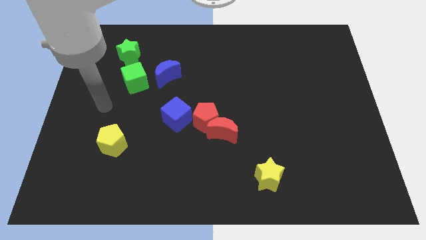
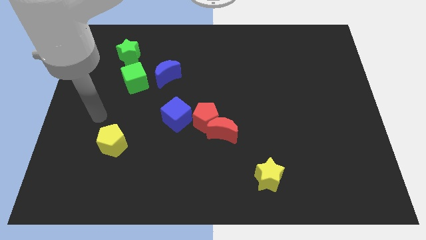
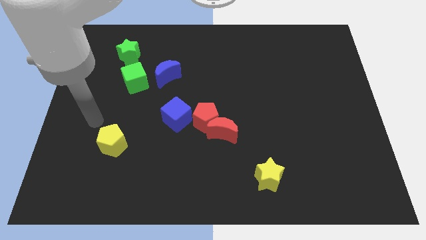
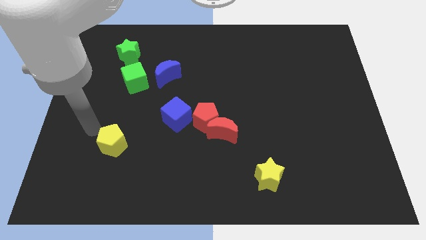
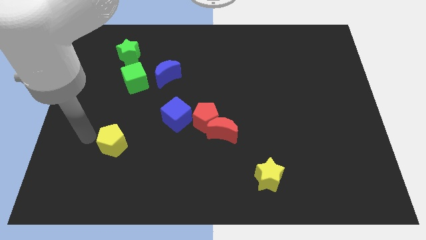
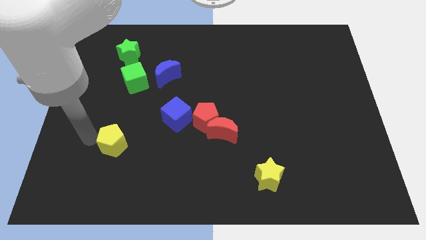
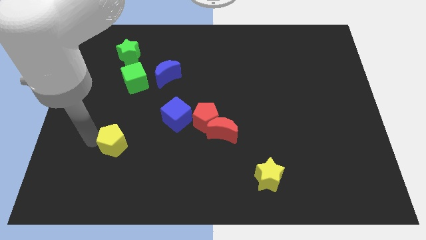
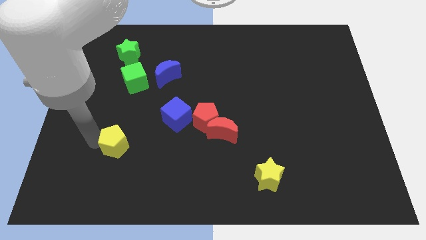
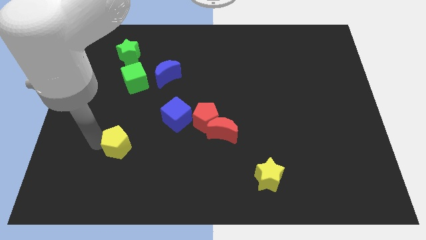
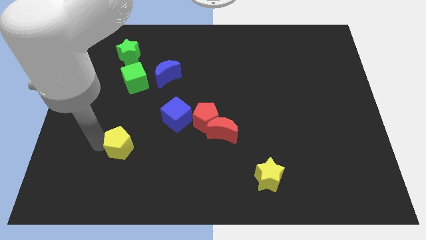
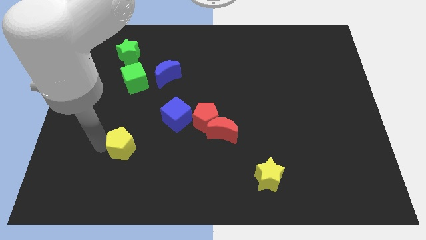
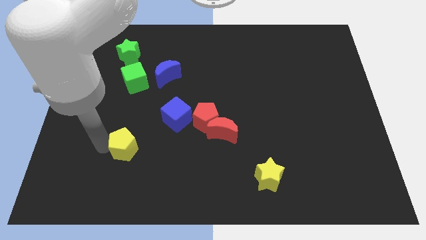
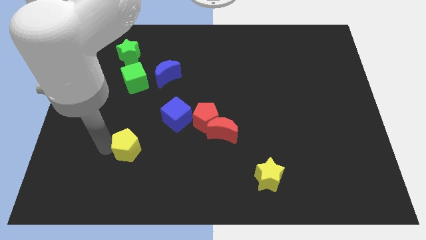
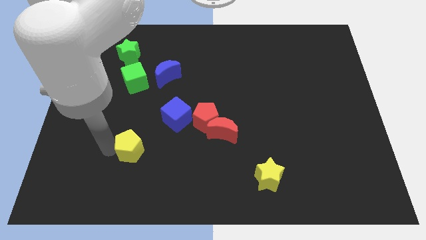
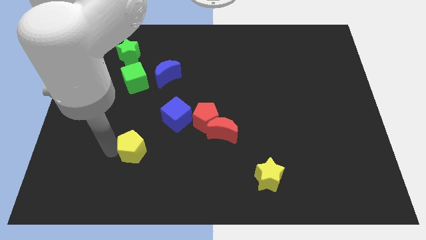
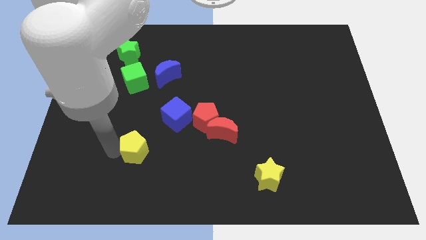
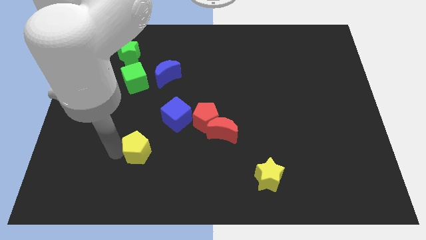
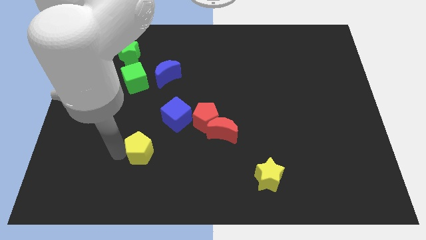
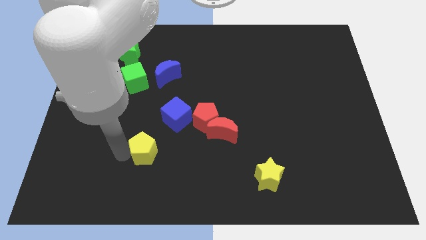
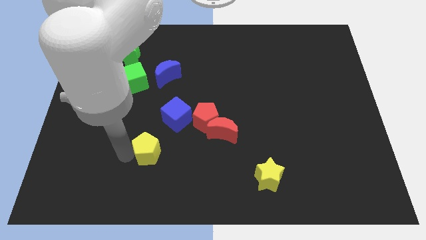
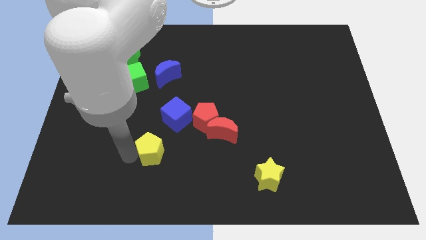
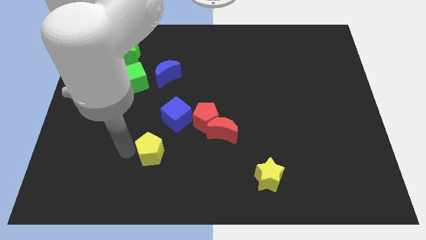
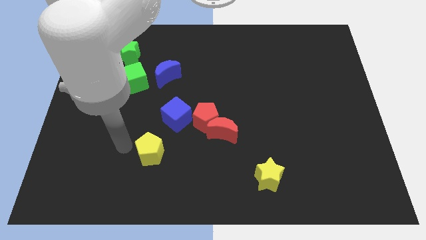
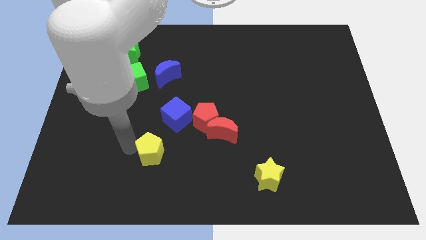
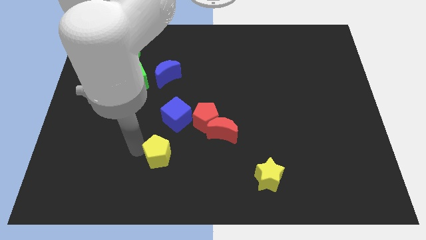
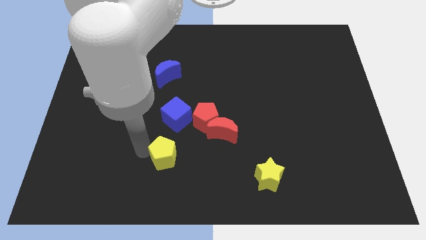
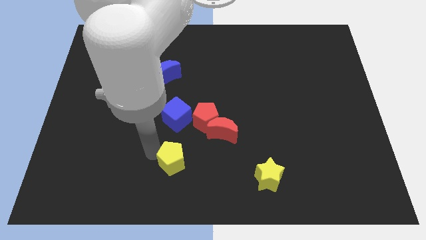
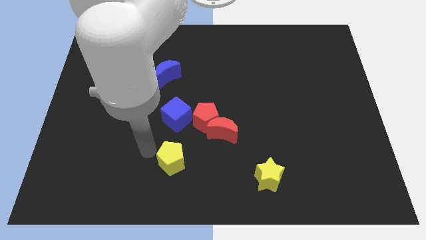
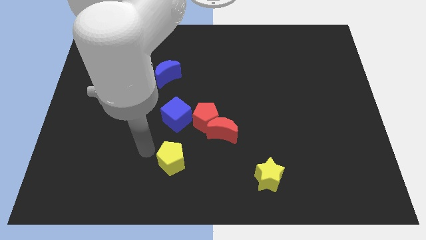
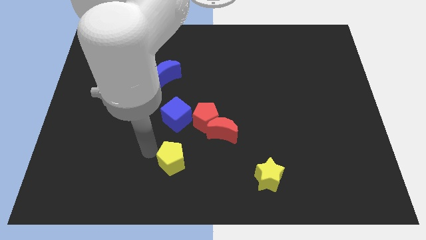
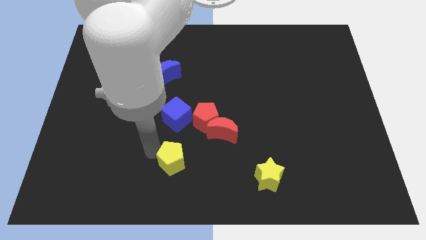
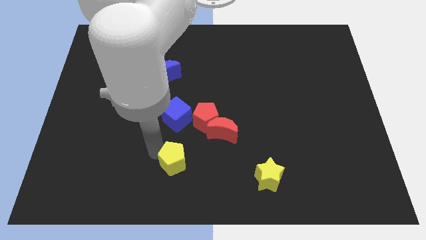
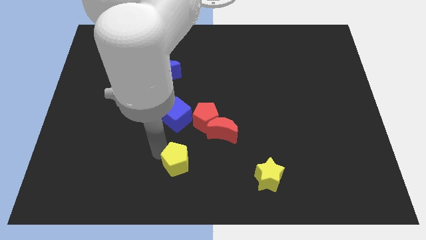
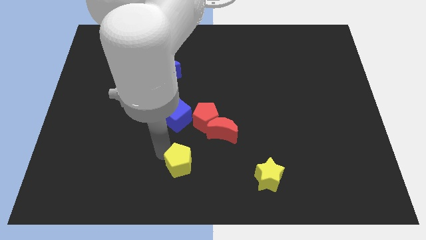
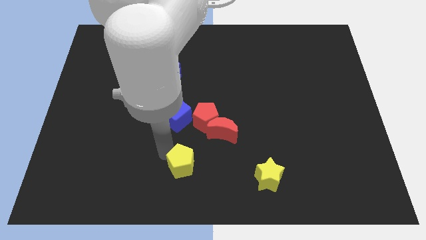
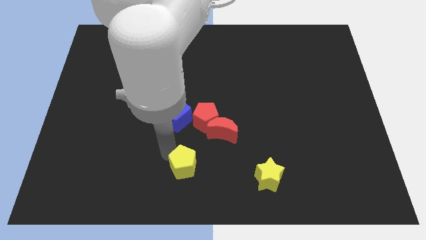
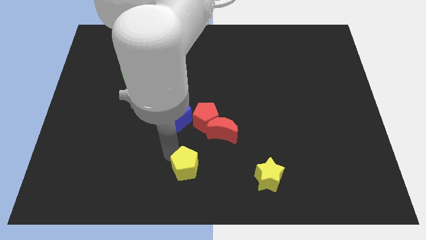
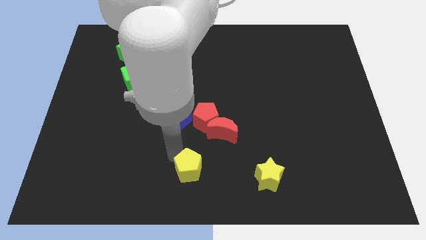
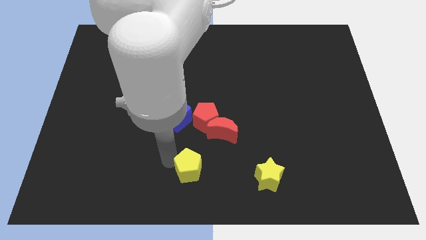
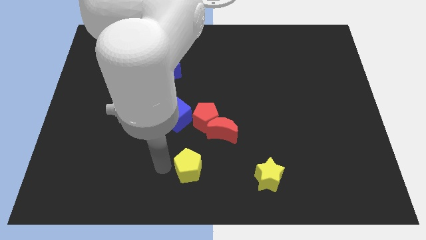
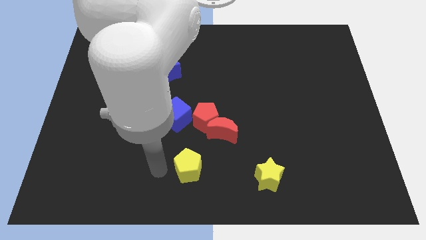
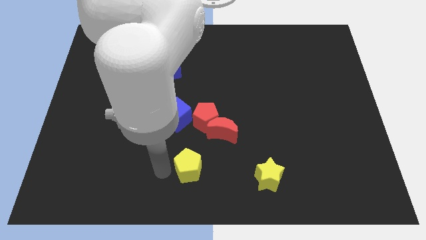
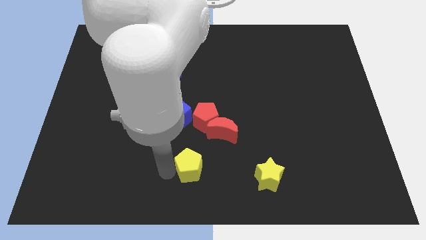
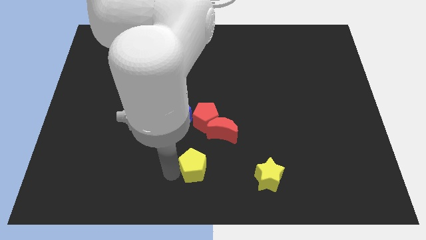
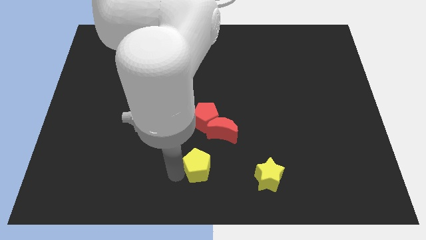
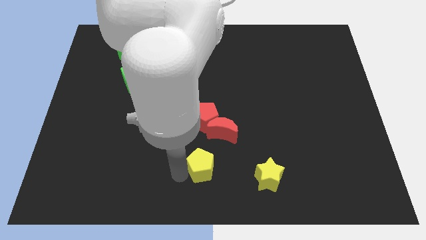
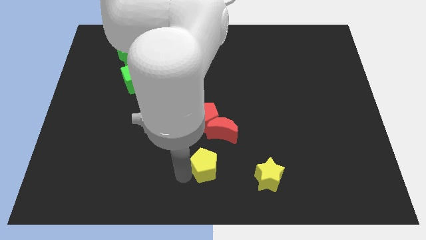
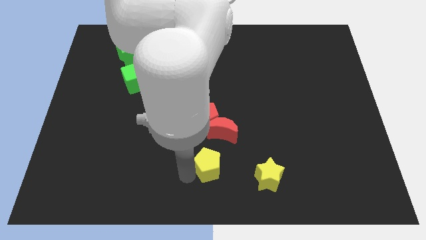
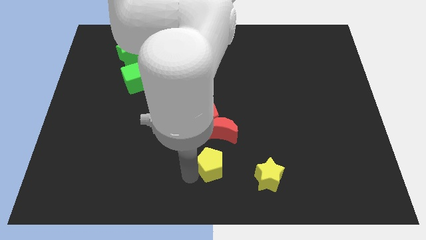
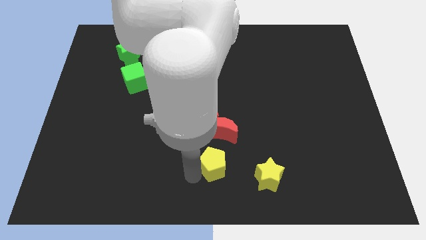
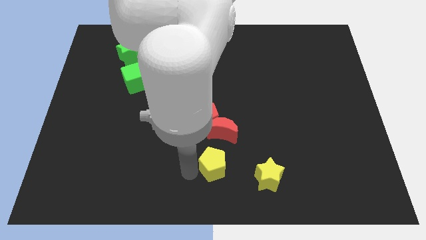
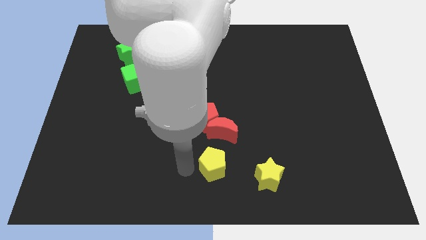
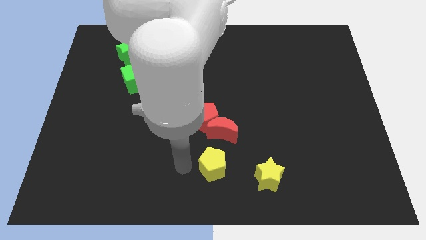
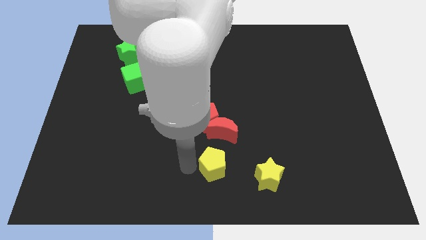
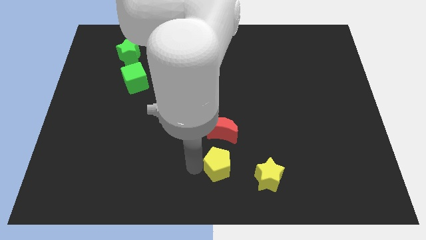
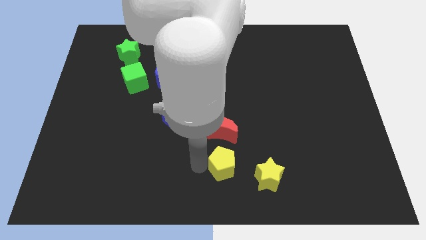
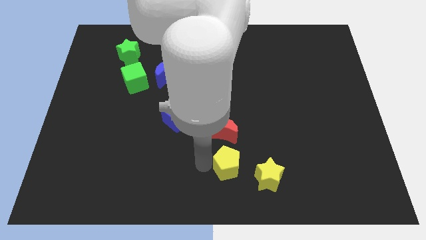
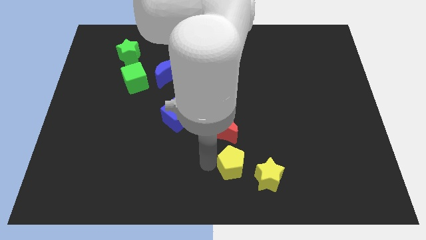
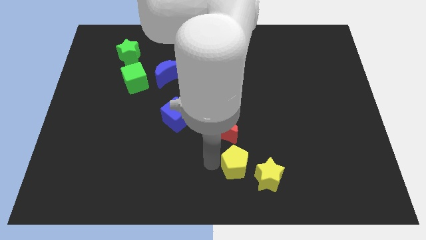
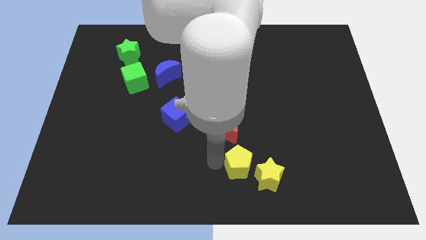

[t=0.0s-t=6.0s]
move the yellow pentagon next to the yellow star

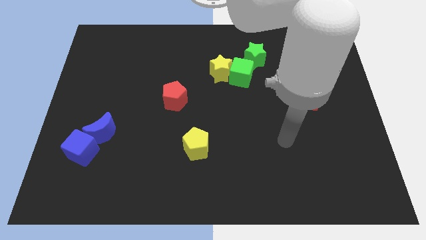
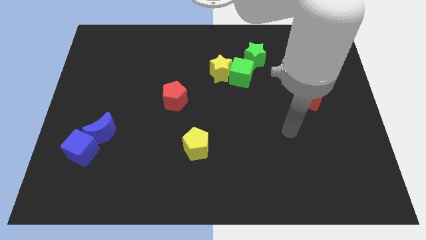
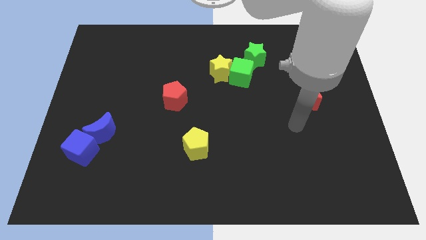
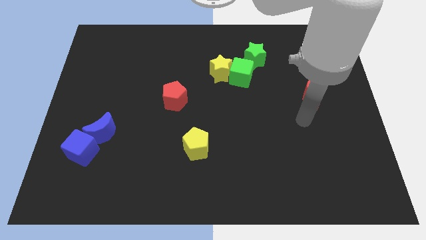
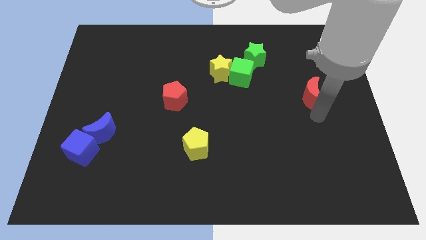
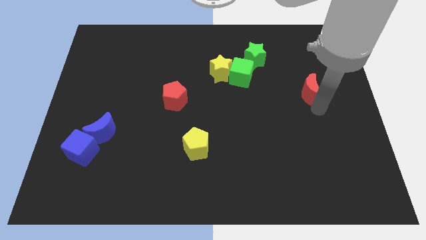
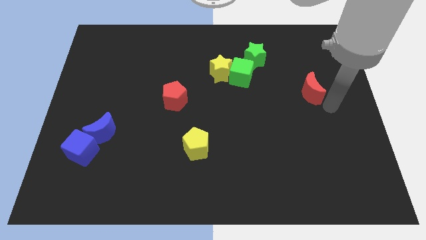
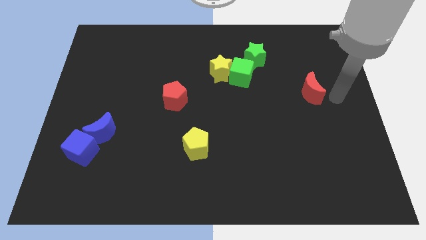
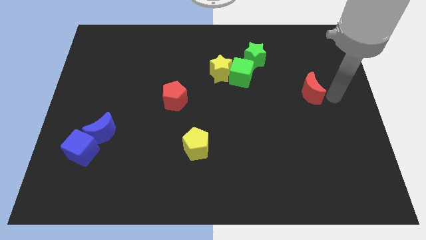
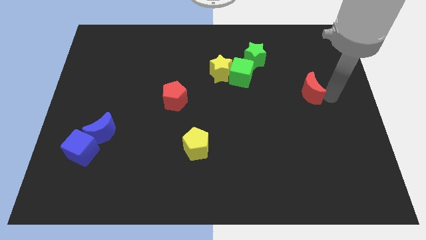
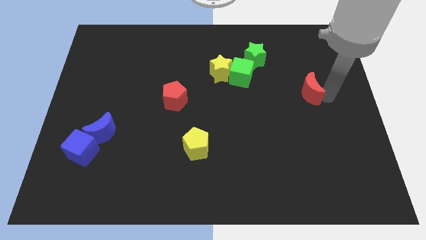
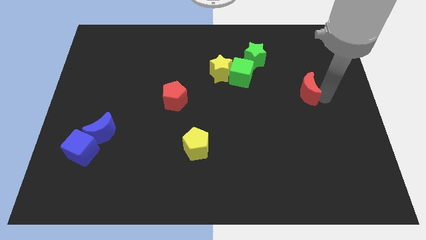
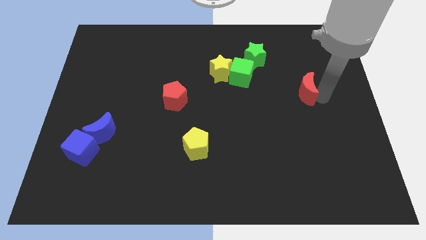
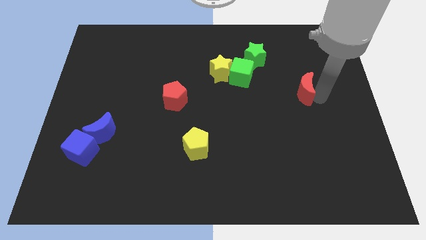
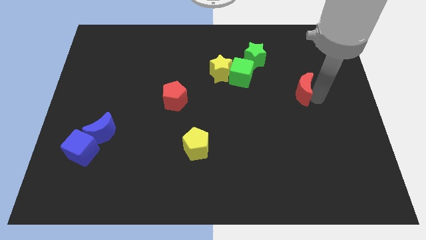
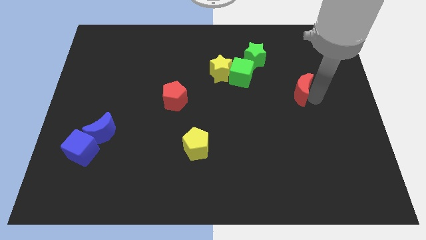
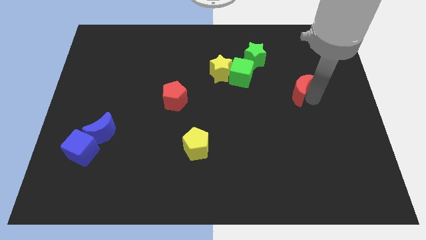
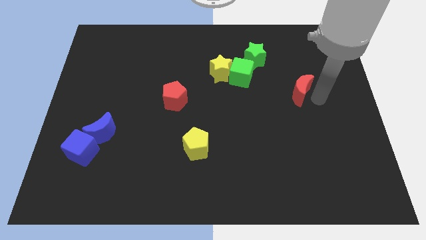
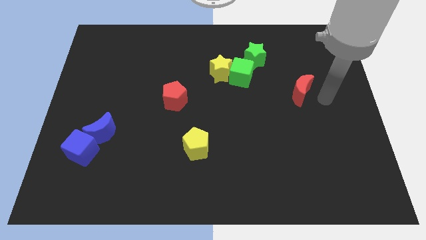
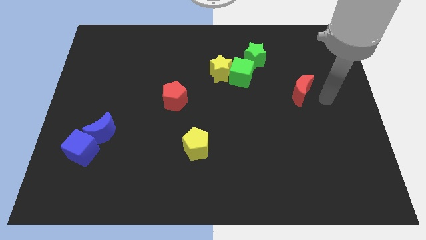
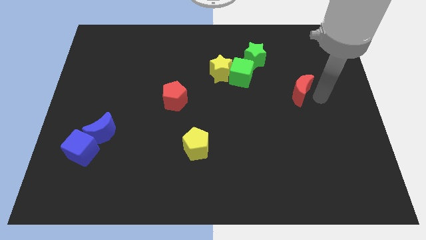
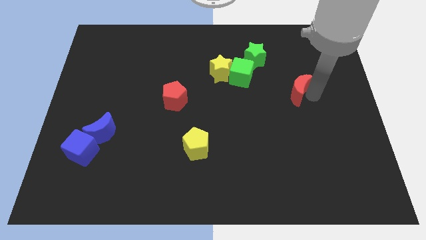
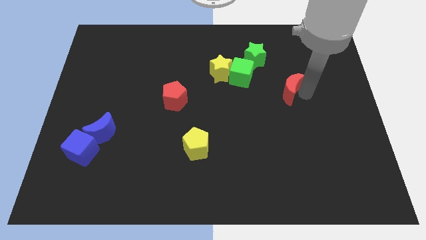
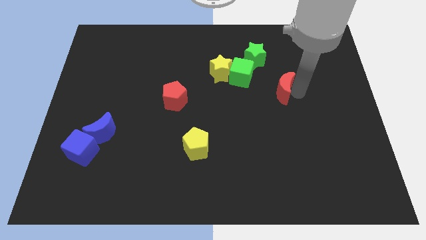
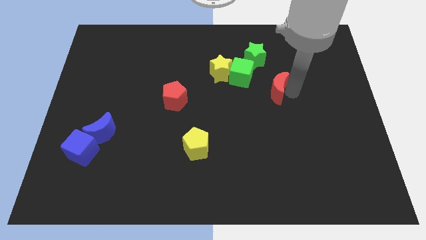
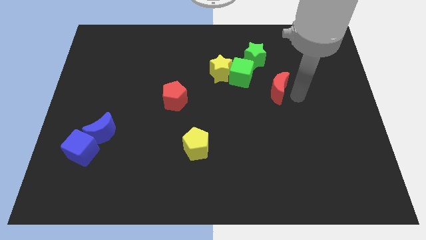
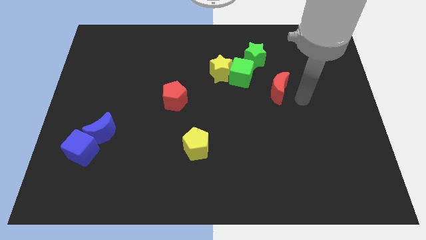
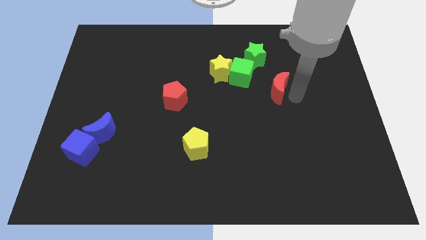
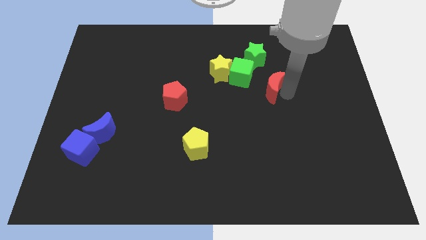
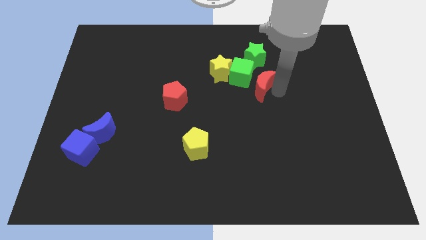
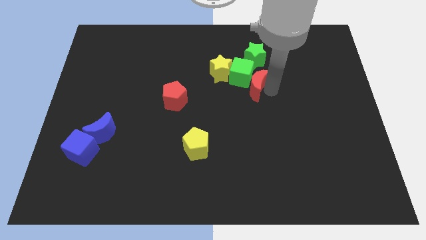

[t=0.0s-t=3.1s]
put the red moon next to the green cube
